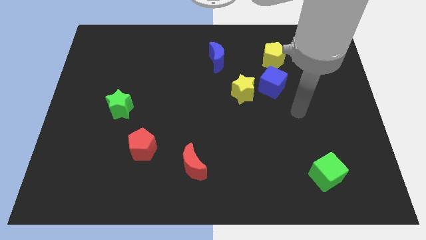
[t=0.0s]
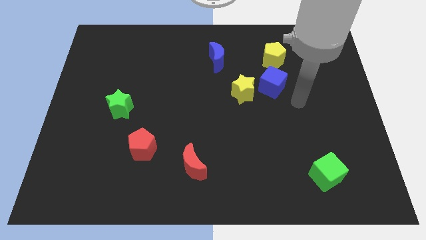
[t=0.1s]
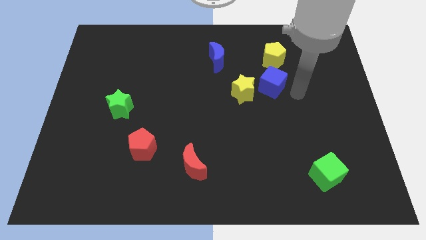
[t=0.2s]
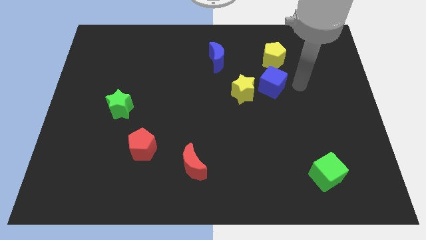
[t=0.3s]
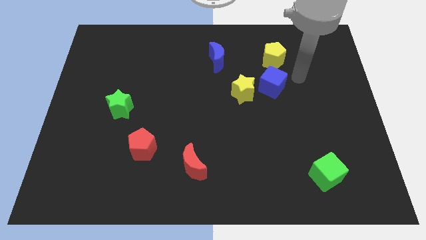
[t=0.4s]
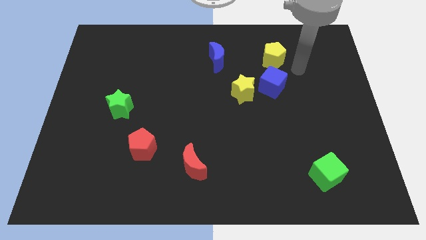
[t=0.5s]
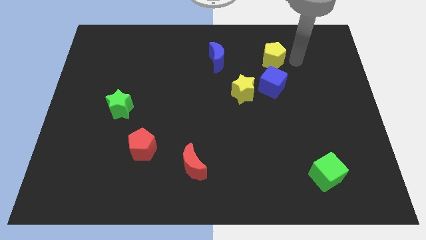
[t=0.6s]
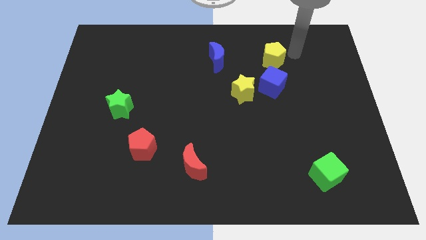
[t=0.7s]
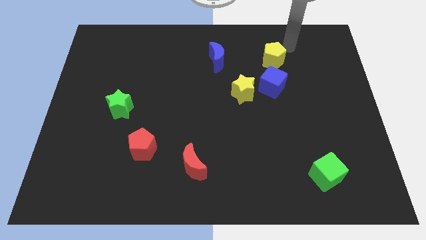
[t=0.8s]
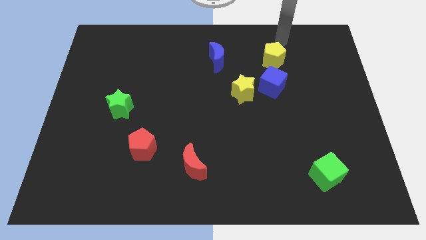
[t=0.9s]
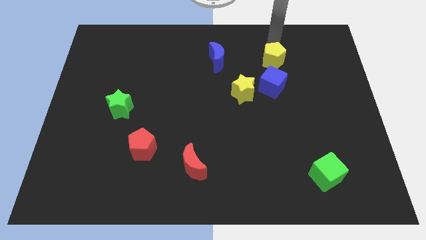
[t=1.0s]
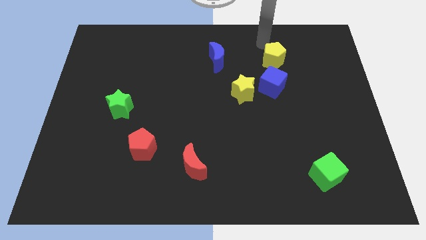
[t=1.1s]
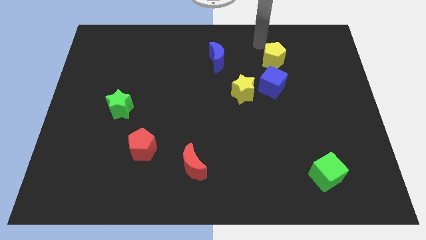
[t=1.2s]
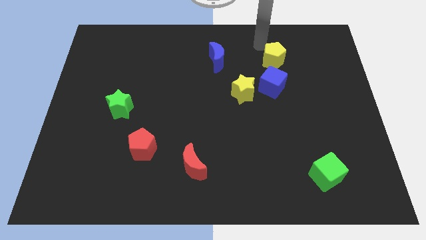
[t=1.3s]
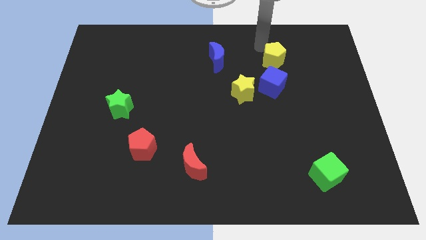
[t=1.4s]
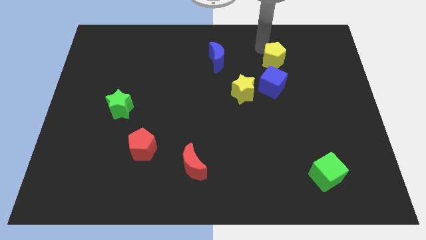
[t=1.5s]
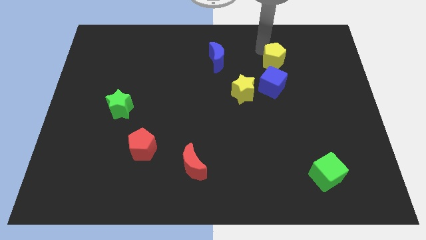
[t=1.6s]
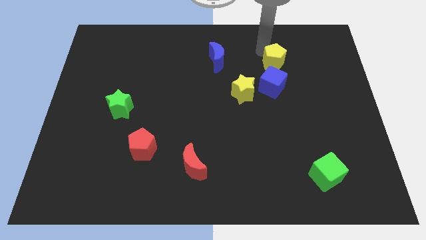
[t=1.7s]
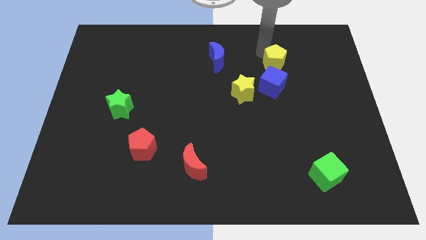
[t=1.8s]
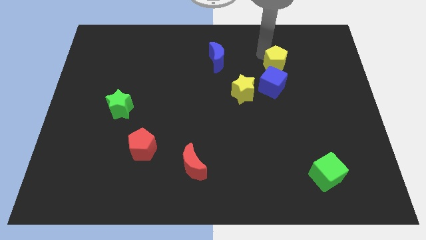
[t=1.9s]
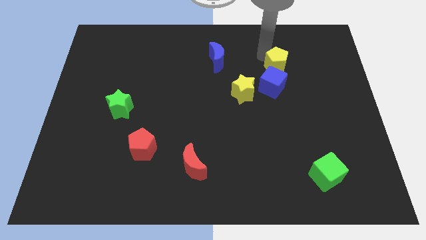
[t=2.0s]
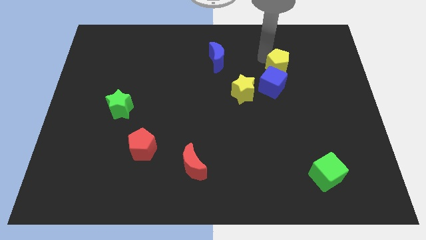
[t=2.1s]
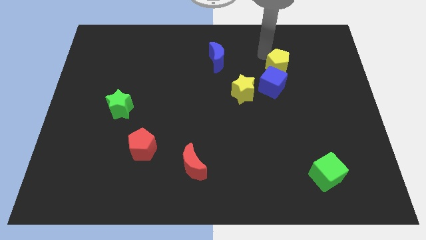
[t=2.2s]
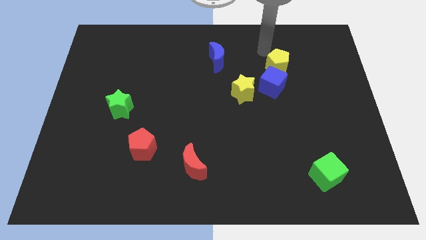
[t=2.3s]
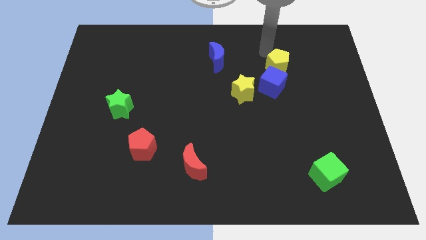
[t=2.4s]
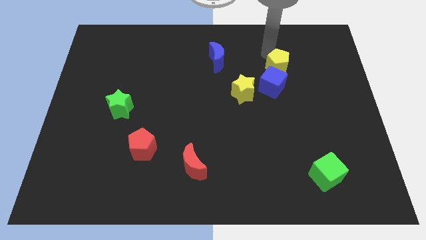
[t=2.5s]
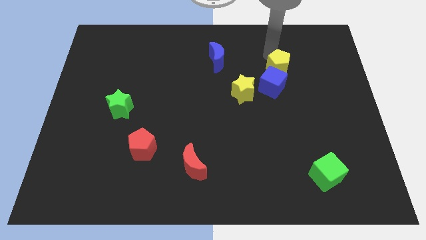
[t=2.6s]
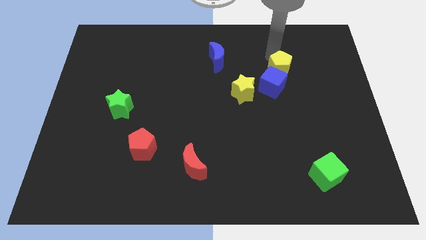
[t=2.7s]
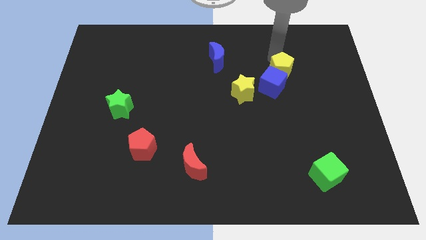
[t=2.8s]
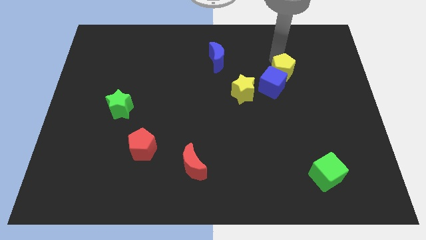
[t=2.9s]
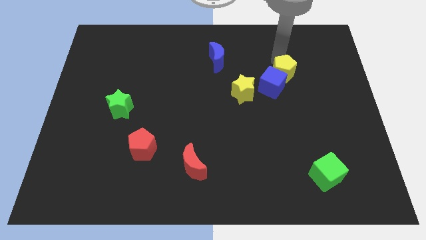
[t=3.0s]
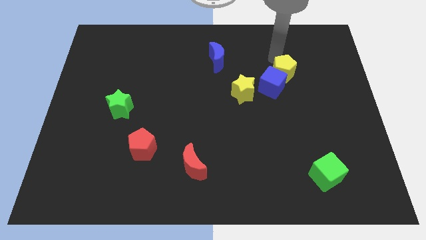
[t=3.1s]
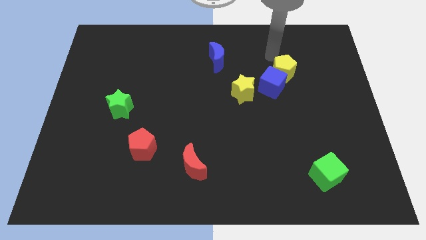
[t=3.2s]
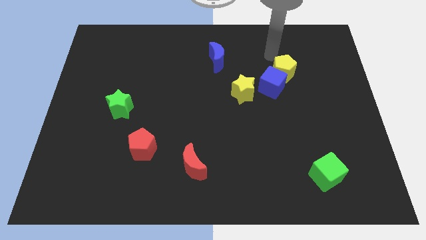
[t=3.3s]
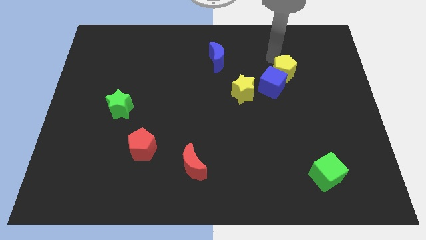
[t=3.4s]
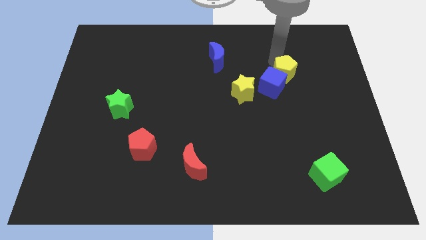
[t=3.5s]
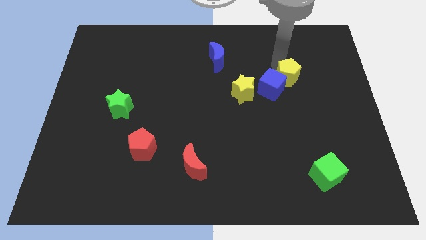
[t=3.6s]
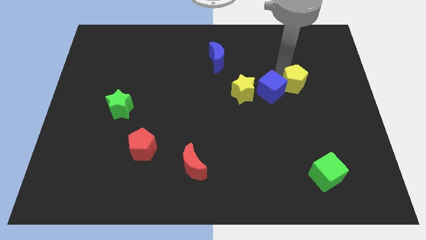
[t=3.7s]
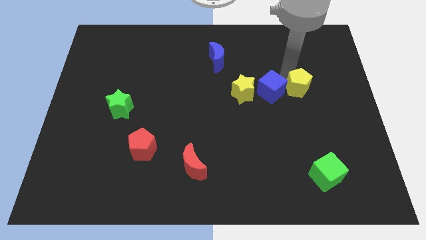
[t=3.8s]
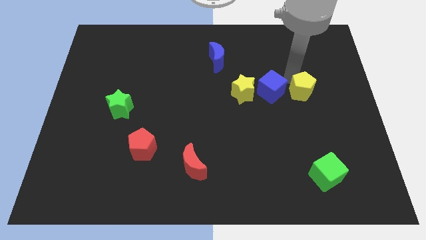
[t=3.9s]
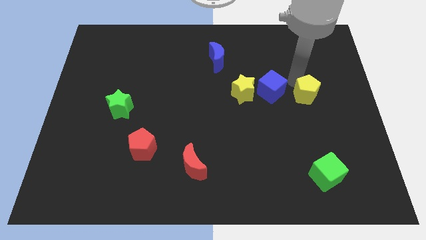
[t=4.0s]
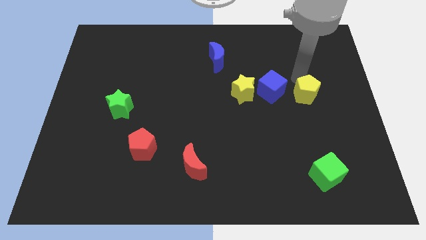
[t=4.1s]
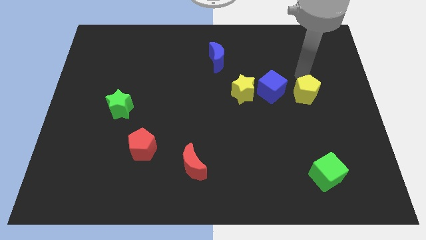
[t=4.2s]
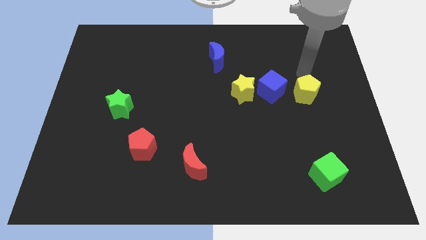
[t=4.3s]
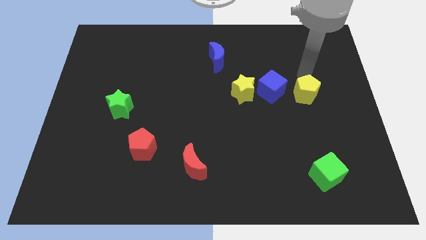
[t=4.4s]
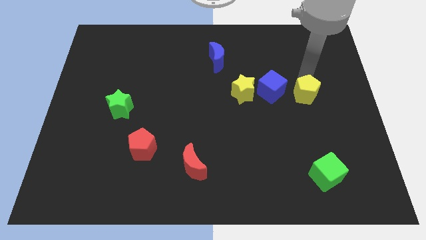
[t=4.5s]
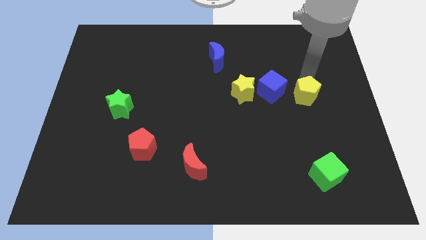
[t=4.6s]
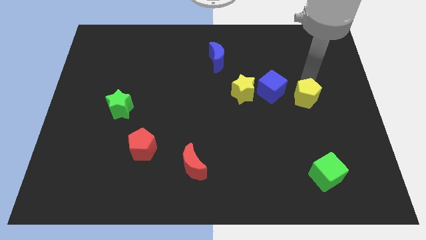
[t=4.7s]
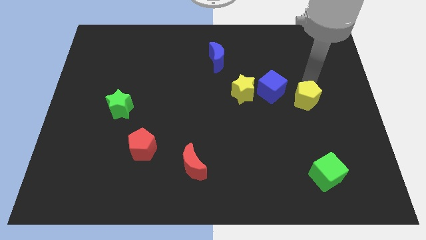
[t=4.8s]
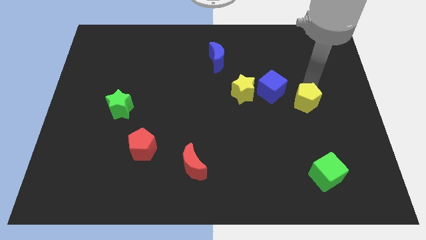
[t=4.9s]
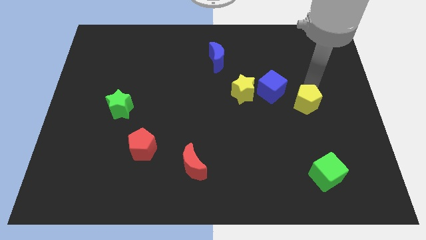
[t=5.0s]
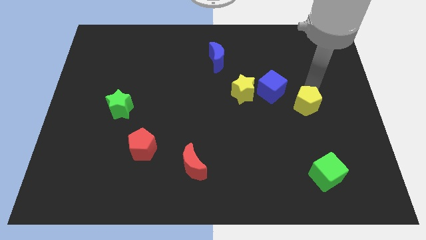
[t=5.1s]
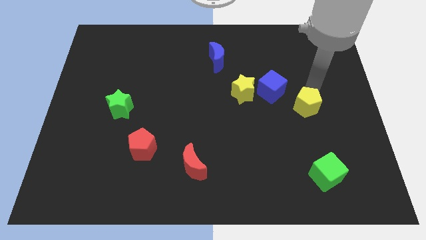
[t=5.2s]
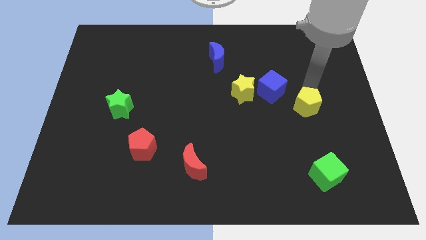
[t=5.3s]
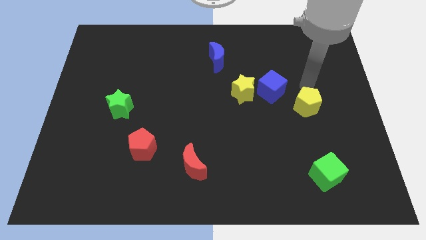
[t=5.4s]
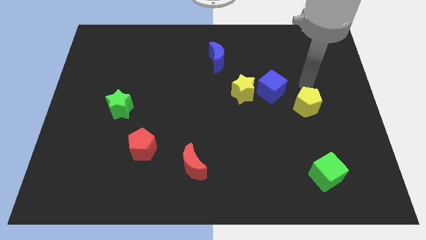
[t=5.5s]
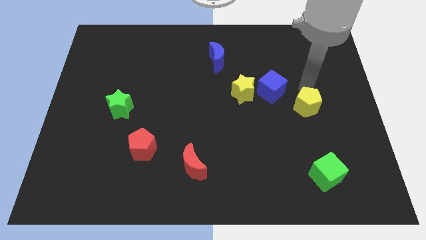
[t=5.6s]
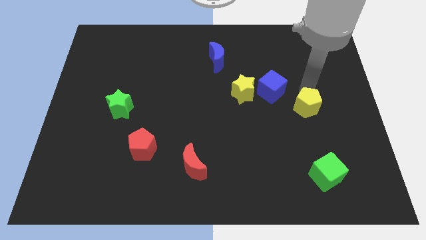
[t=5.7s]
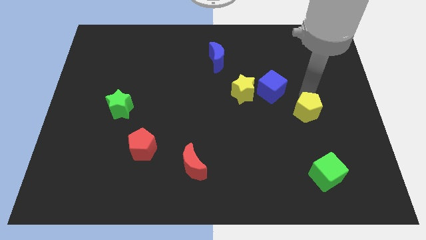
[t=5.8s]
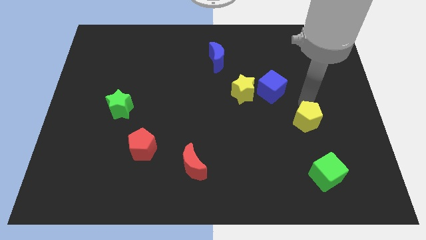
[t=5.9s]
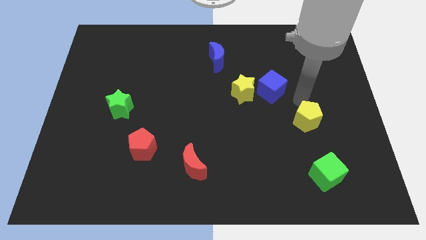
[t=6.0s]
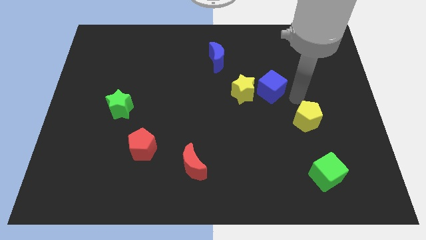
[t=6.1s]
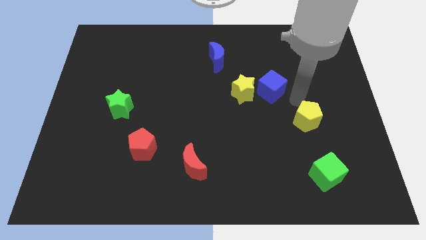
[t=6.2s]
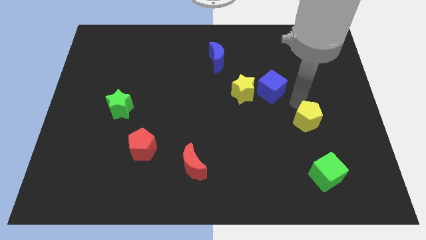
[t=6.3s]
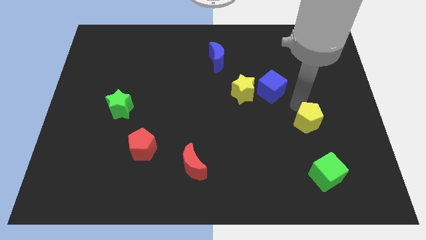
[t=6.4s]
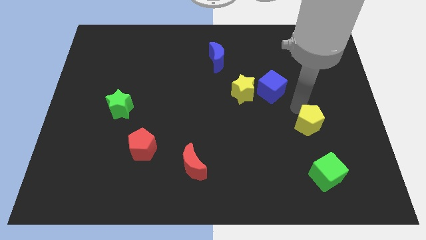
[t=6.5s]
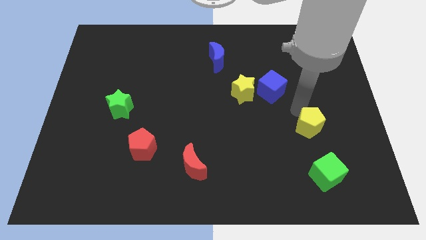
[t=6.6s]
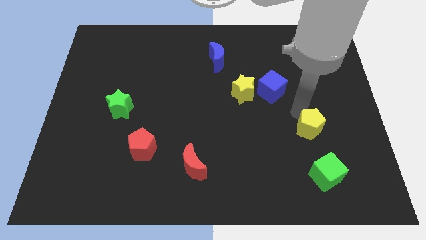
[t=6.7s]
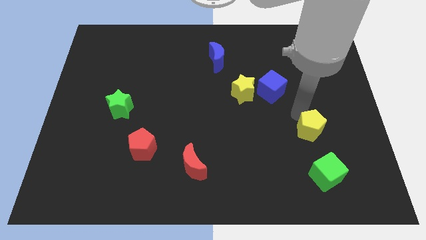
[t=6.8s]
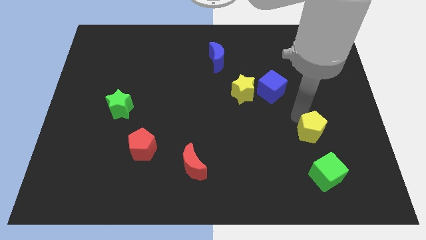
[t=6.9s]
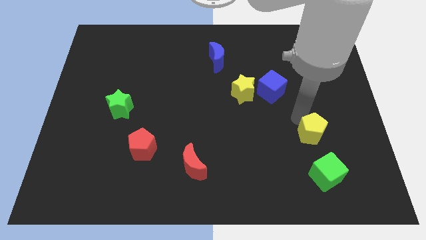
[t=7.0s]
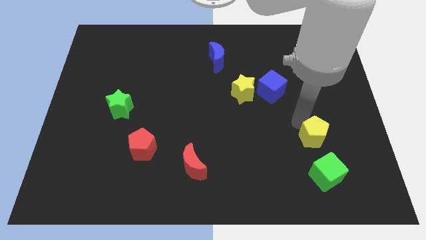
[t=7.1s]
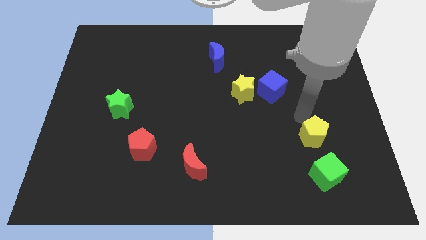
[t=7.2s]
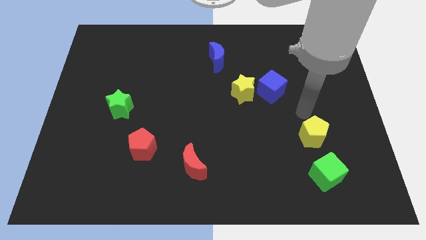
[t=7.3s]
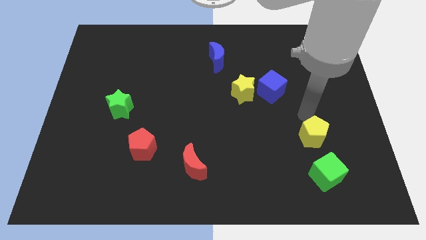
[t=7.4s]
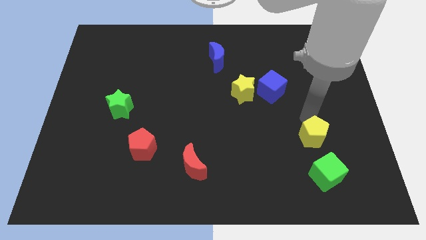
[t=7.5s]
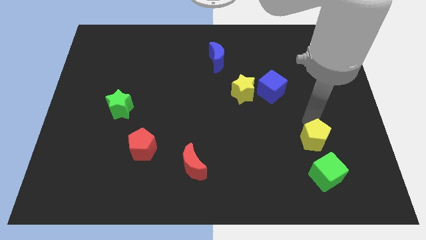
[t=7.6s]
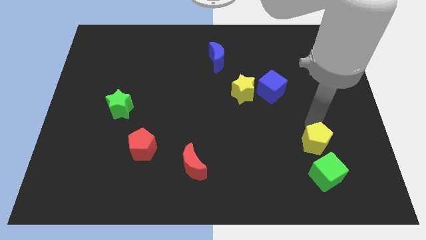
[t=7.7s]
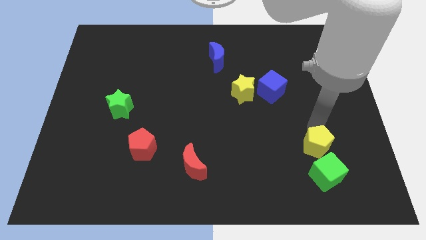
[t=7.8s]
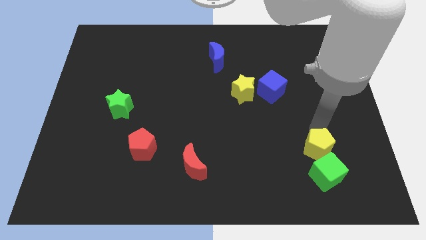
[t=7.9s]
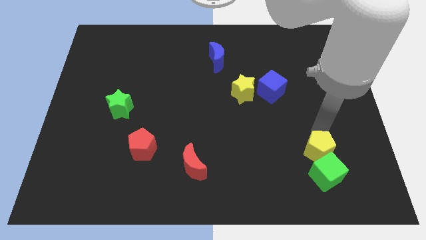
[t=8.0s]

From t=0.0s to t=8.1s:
put the yellow pentagon to the green cube
